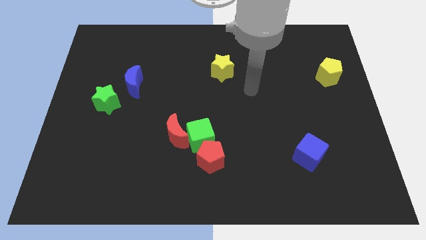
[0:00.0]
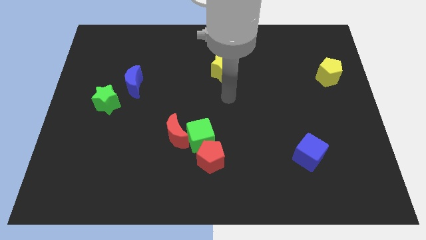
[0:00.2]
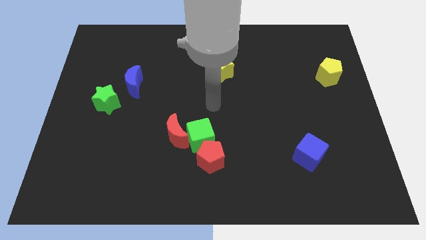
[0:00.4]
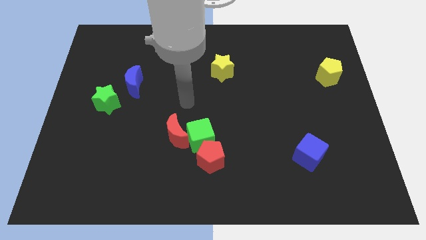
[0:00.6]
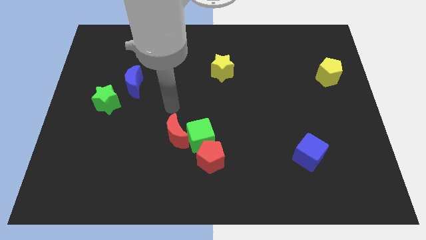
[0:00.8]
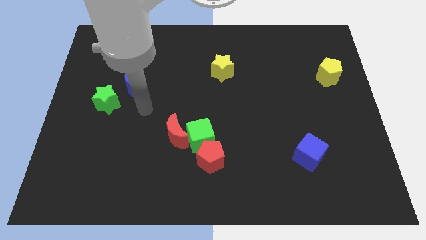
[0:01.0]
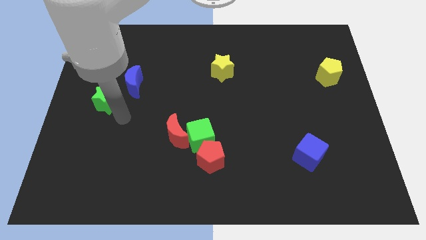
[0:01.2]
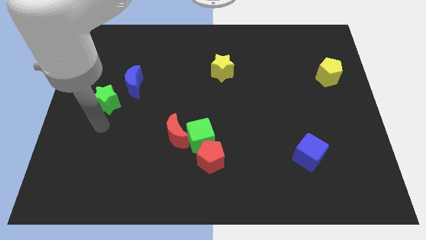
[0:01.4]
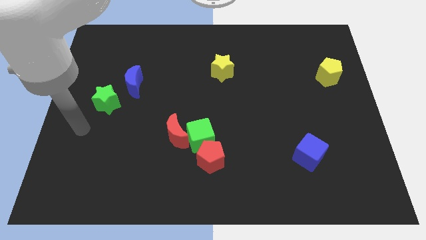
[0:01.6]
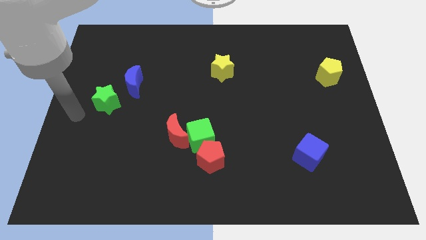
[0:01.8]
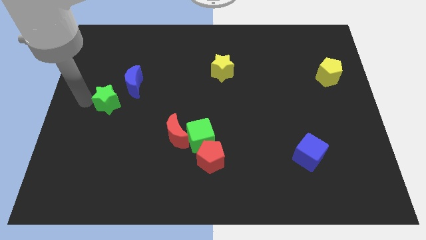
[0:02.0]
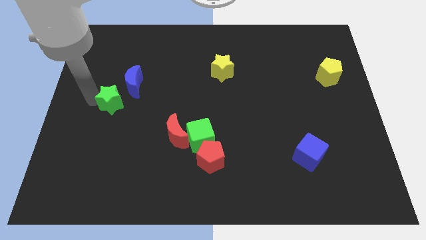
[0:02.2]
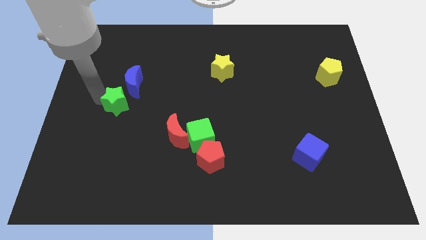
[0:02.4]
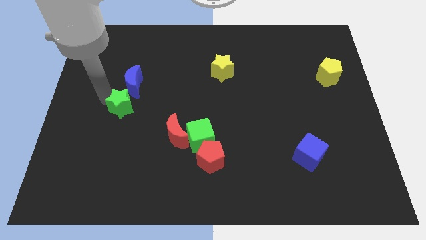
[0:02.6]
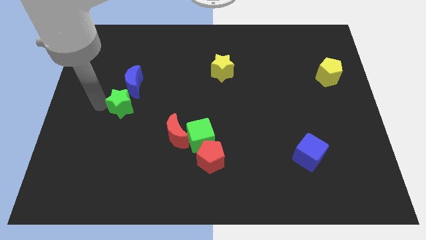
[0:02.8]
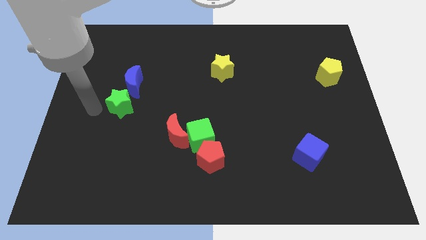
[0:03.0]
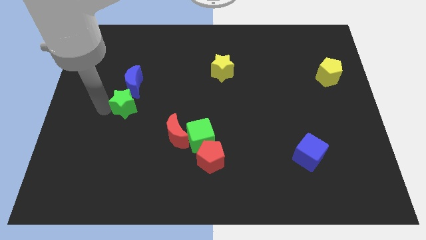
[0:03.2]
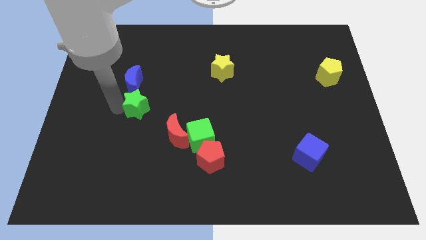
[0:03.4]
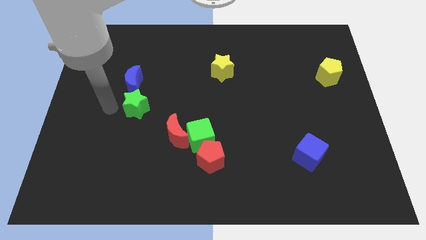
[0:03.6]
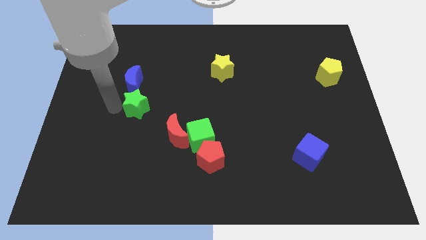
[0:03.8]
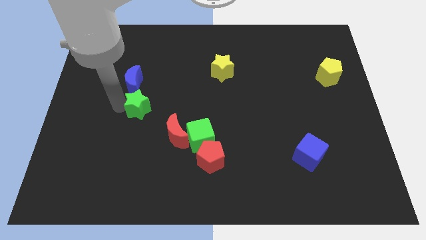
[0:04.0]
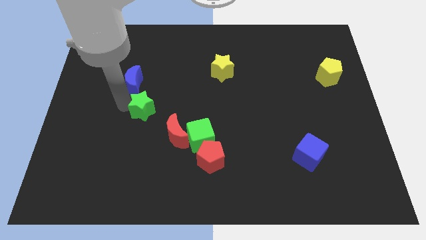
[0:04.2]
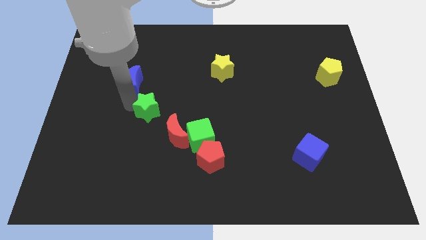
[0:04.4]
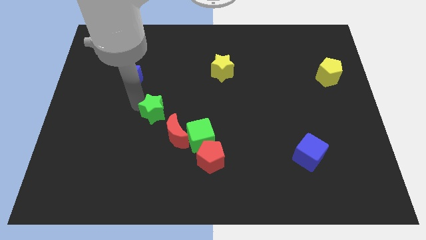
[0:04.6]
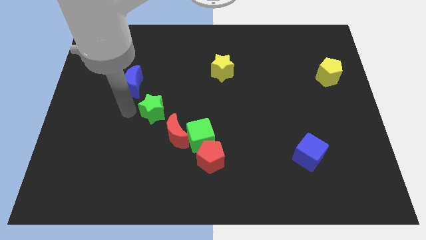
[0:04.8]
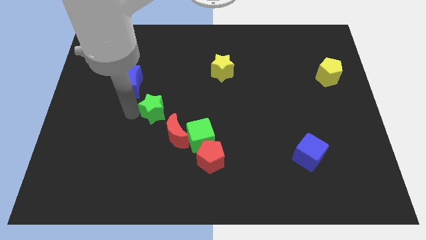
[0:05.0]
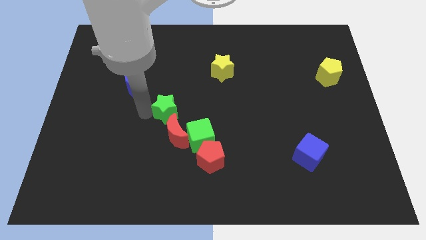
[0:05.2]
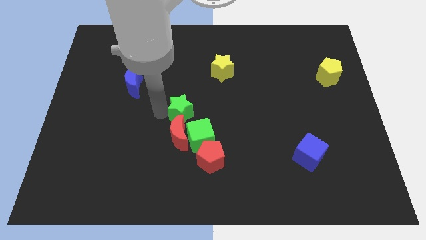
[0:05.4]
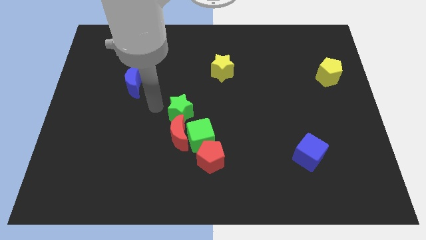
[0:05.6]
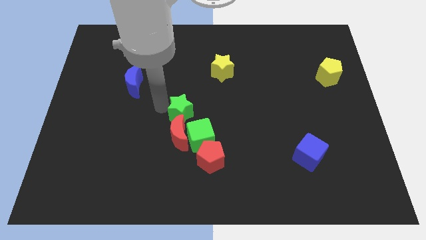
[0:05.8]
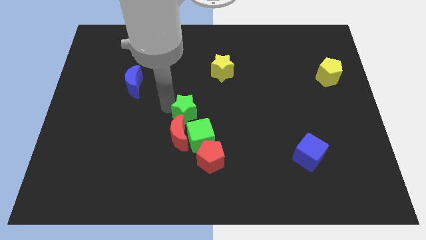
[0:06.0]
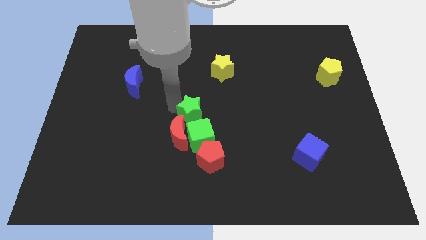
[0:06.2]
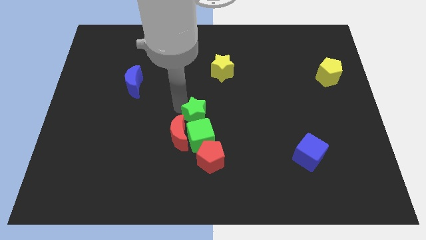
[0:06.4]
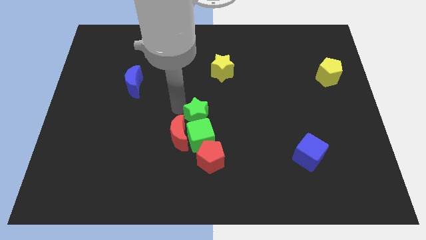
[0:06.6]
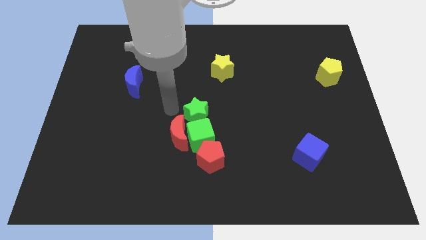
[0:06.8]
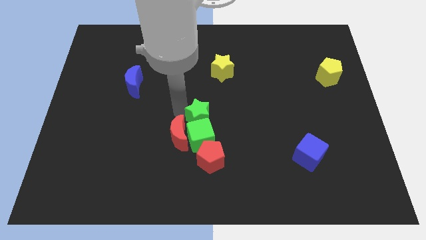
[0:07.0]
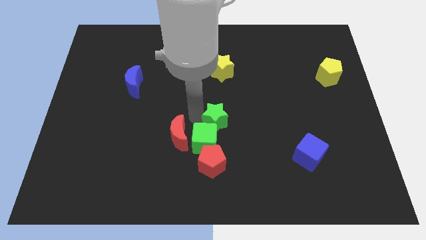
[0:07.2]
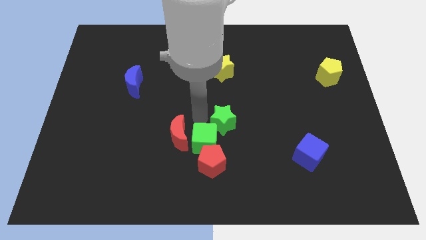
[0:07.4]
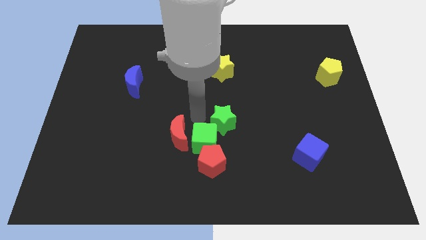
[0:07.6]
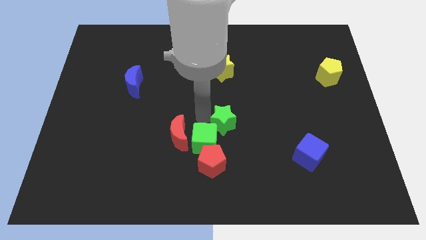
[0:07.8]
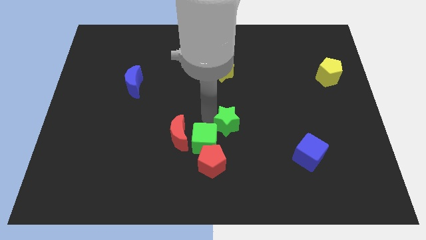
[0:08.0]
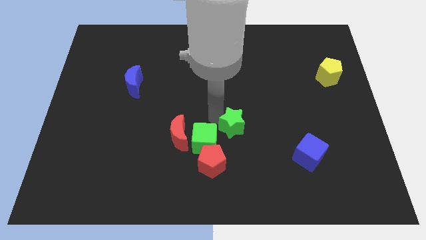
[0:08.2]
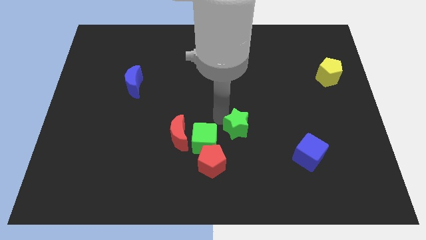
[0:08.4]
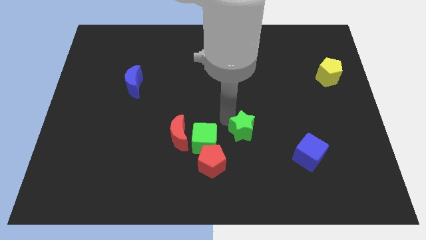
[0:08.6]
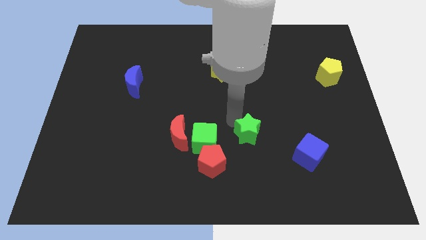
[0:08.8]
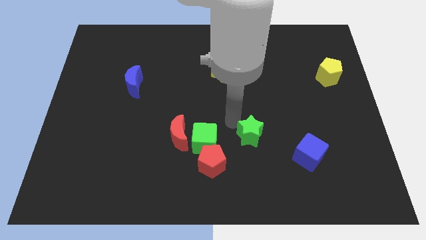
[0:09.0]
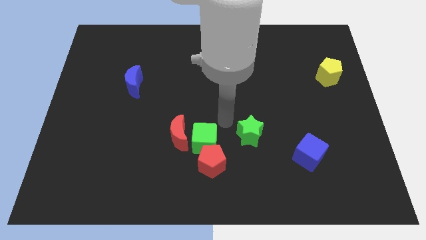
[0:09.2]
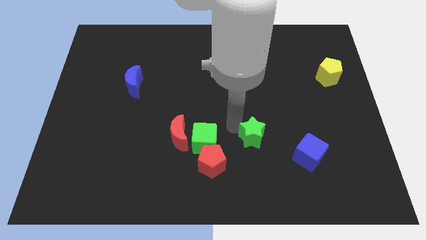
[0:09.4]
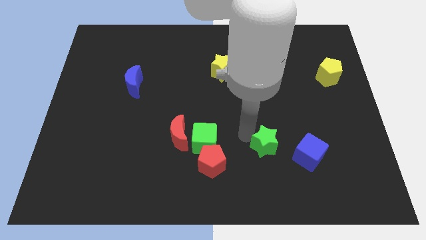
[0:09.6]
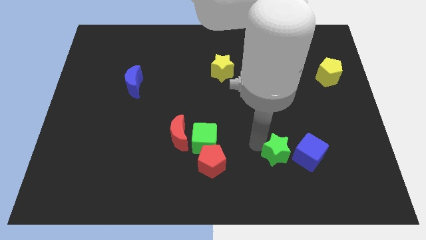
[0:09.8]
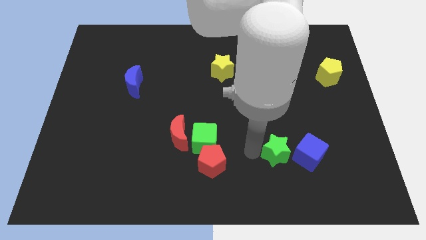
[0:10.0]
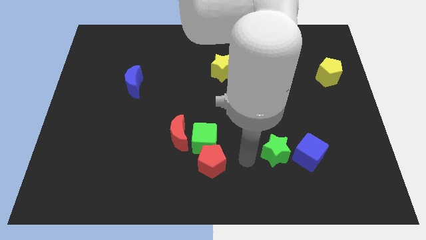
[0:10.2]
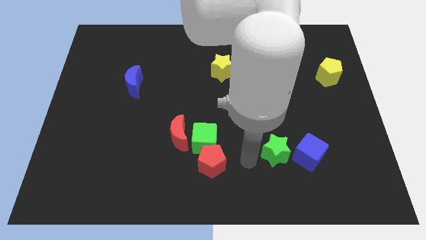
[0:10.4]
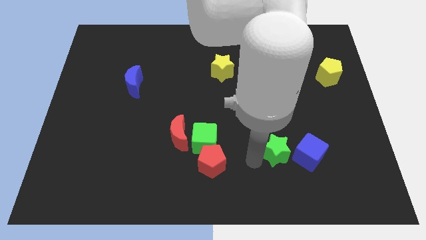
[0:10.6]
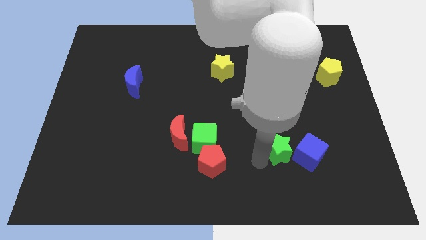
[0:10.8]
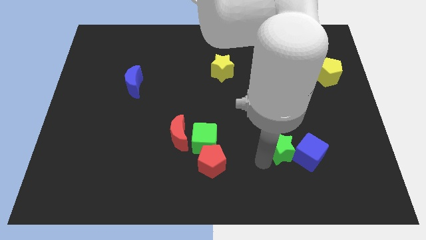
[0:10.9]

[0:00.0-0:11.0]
slide the green star next to the blue cube

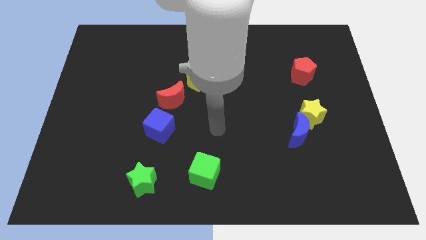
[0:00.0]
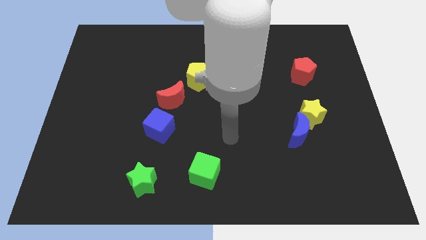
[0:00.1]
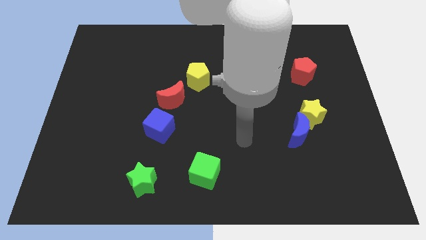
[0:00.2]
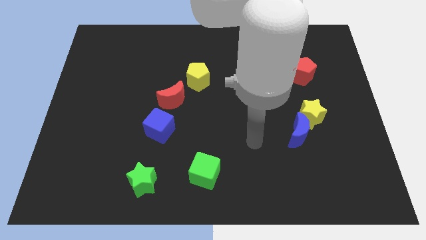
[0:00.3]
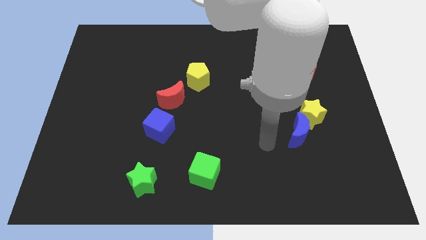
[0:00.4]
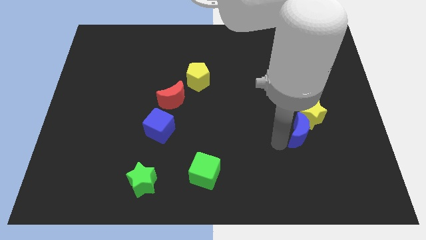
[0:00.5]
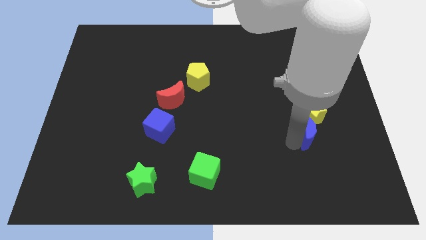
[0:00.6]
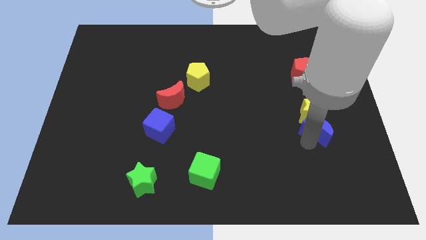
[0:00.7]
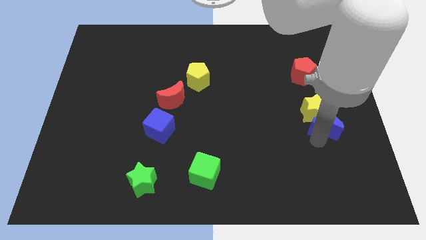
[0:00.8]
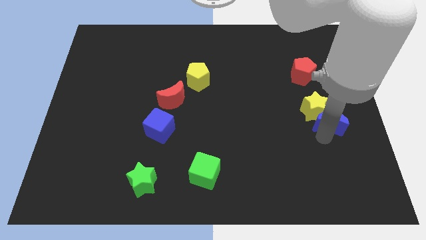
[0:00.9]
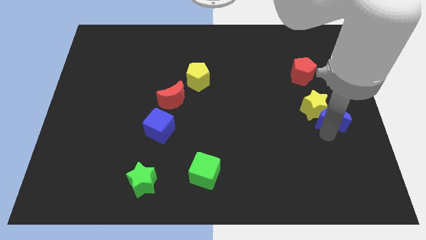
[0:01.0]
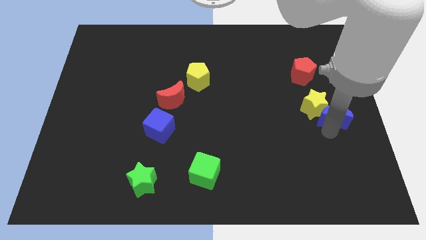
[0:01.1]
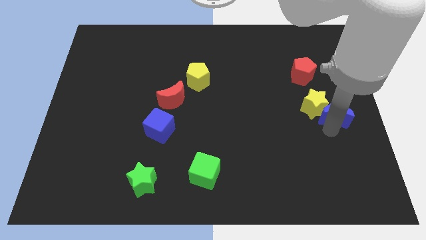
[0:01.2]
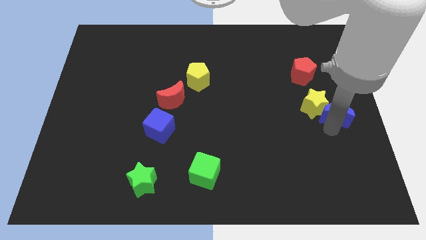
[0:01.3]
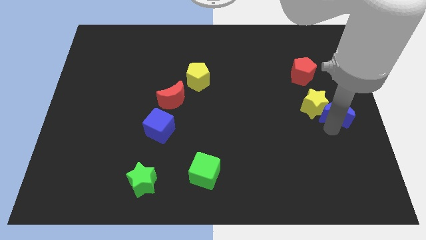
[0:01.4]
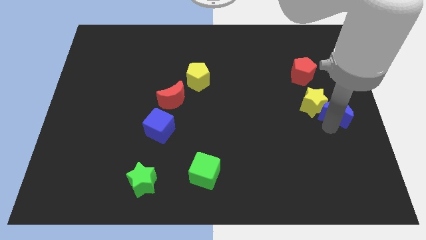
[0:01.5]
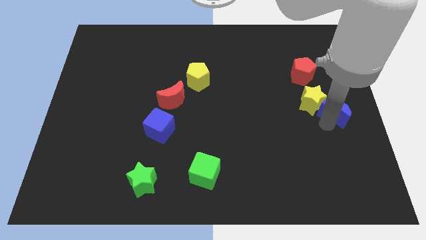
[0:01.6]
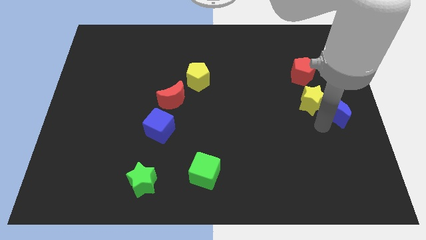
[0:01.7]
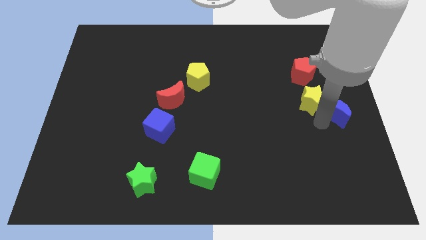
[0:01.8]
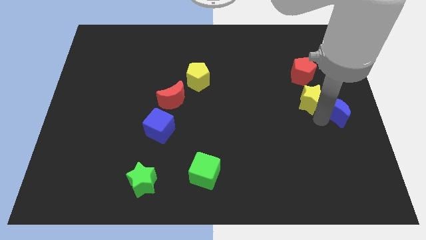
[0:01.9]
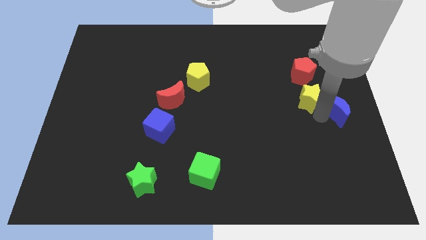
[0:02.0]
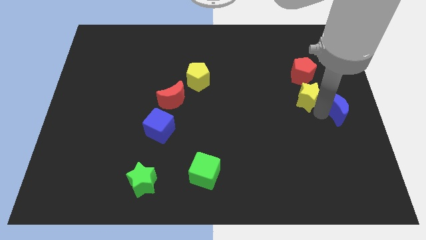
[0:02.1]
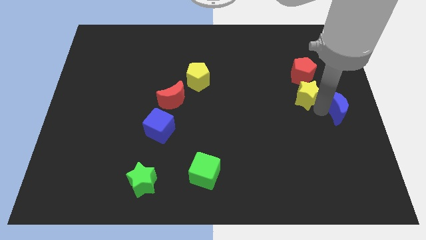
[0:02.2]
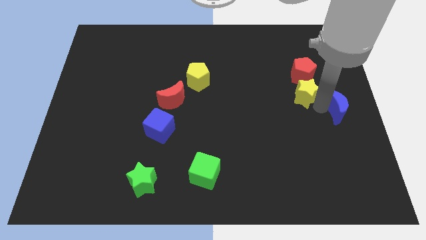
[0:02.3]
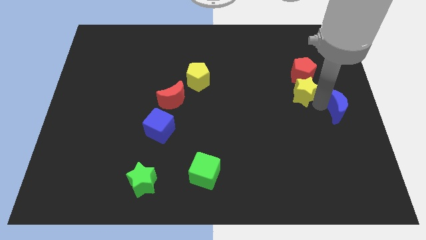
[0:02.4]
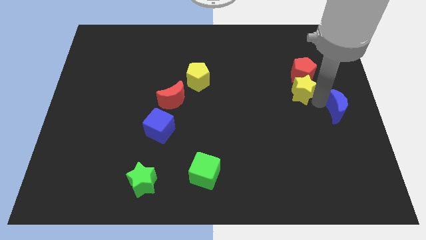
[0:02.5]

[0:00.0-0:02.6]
push the yellow star next to the red pentagon
